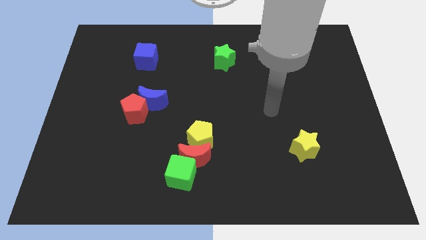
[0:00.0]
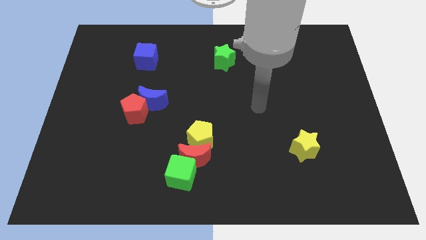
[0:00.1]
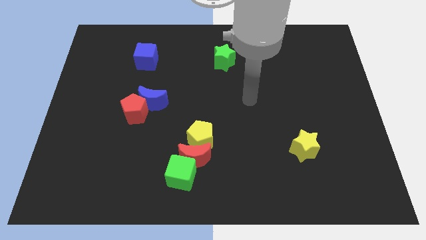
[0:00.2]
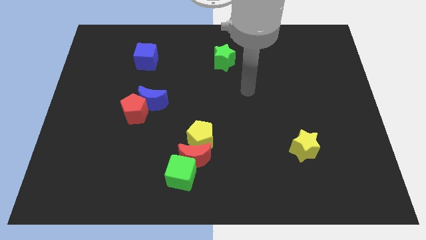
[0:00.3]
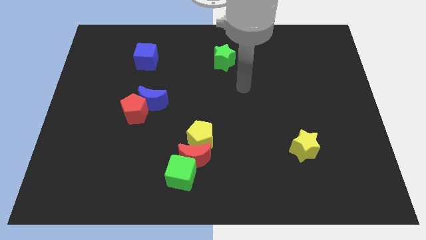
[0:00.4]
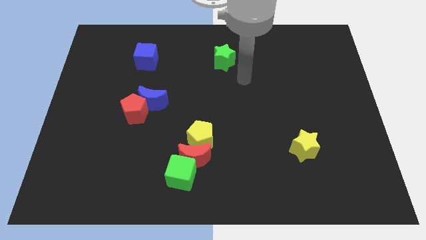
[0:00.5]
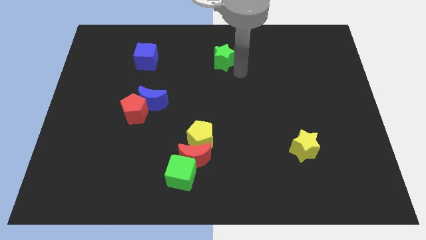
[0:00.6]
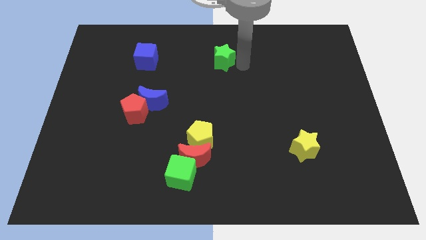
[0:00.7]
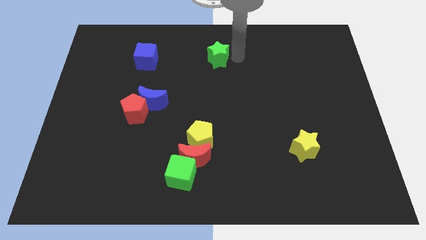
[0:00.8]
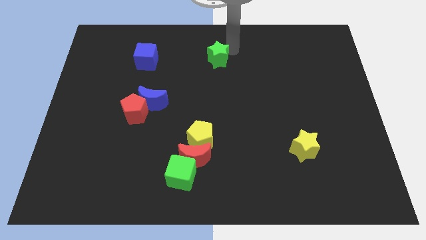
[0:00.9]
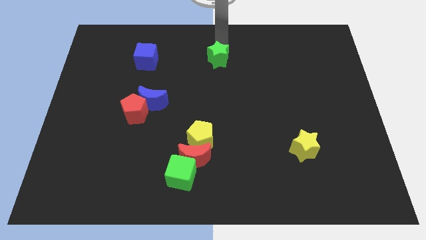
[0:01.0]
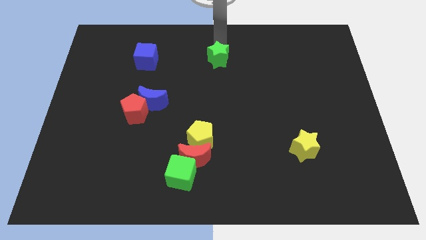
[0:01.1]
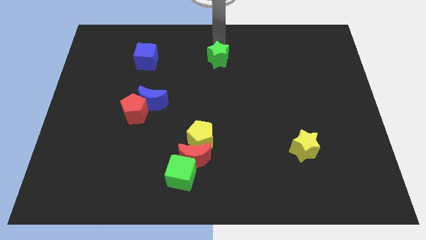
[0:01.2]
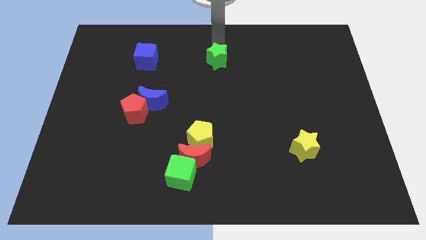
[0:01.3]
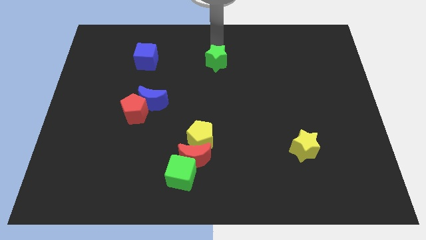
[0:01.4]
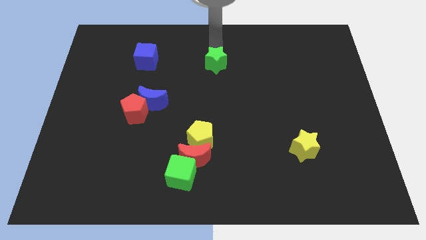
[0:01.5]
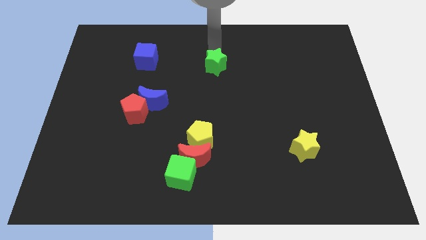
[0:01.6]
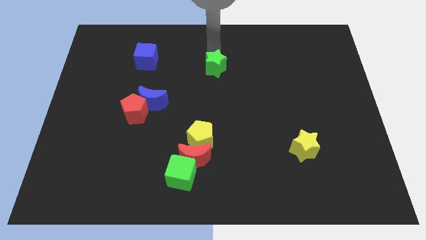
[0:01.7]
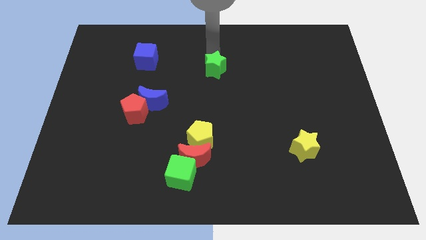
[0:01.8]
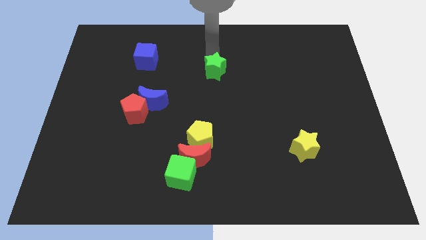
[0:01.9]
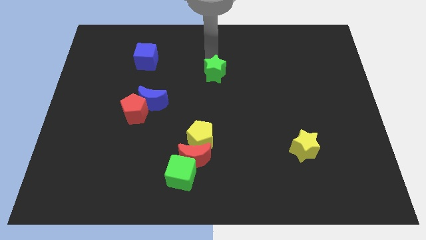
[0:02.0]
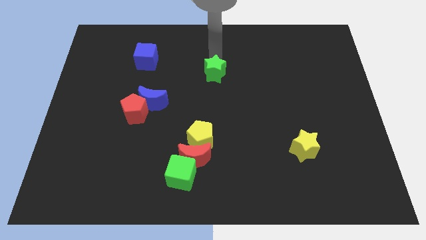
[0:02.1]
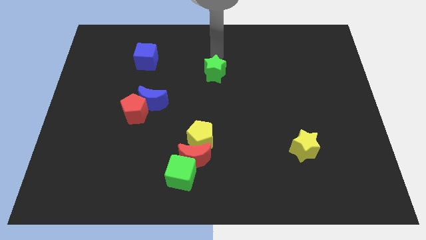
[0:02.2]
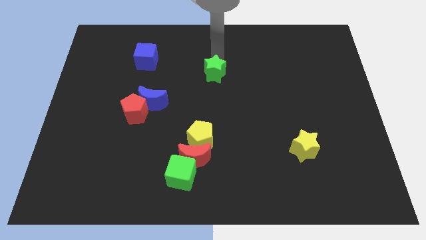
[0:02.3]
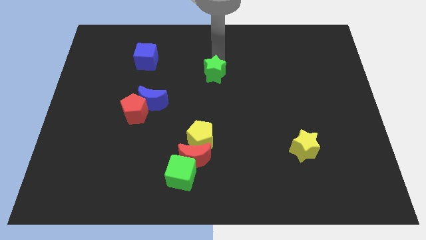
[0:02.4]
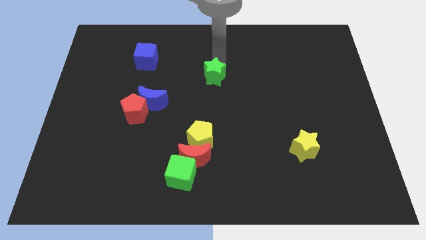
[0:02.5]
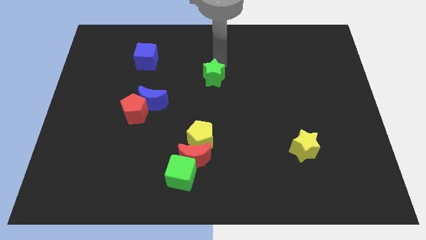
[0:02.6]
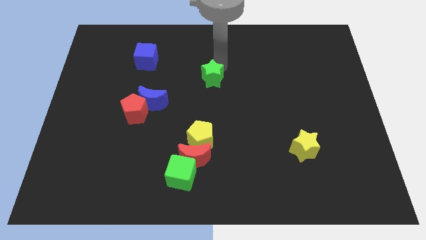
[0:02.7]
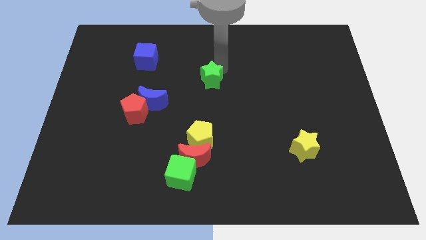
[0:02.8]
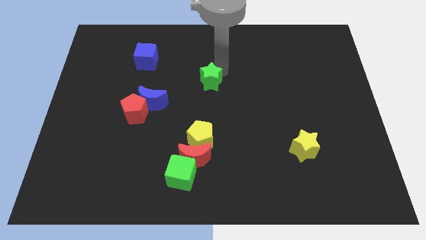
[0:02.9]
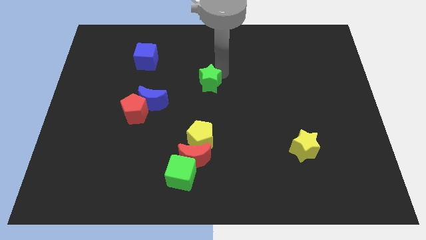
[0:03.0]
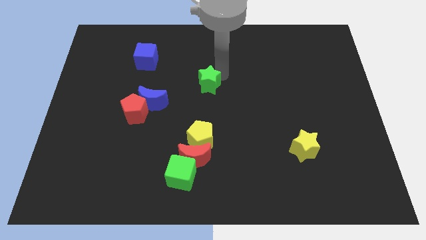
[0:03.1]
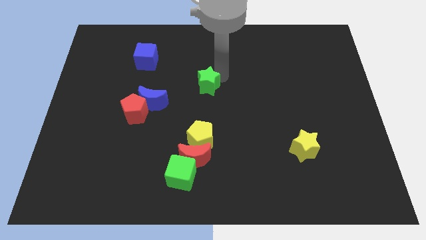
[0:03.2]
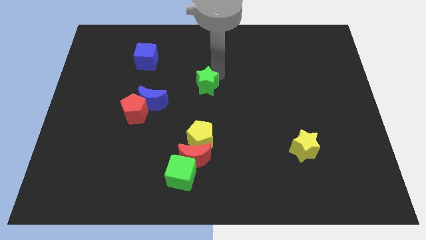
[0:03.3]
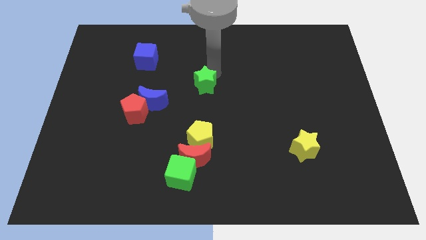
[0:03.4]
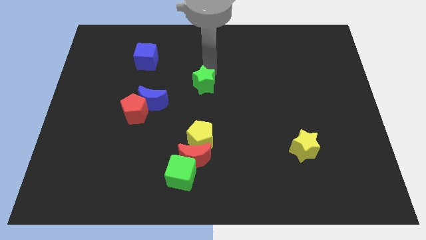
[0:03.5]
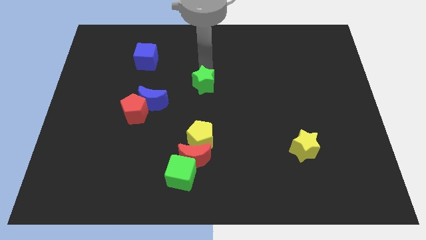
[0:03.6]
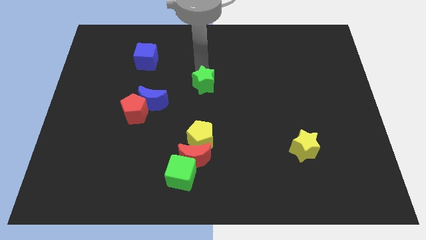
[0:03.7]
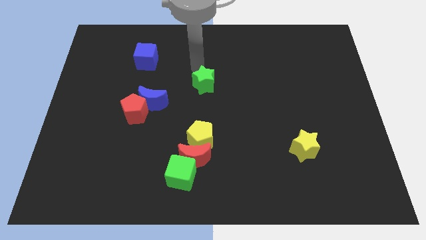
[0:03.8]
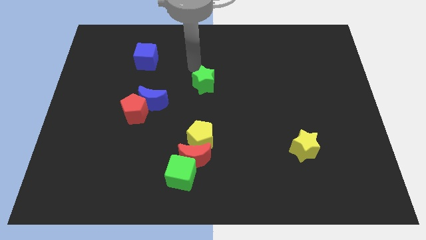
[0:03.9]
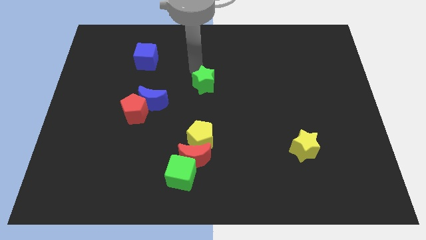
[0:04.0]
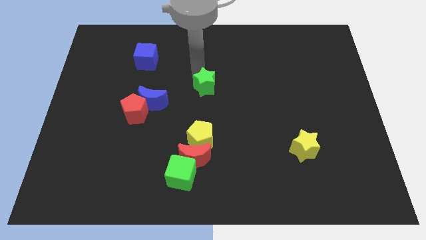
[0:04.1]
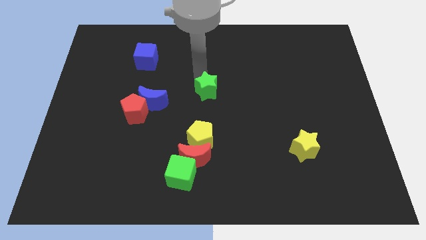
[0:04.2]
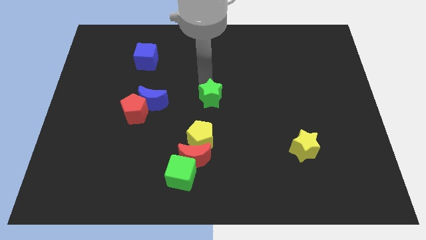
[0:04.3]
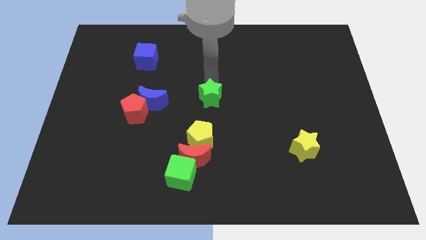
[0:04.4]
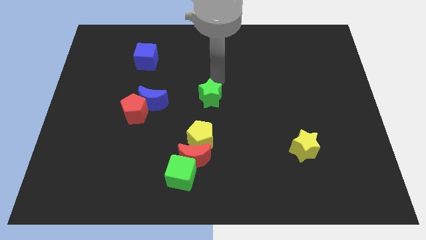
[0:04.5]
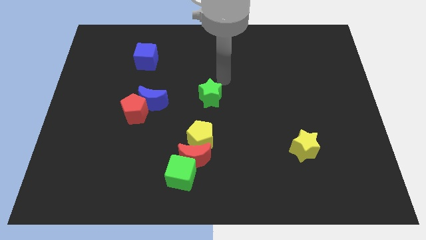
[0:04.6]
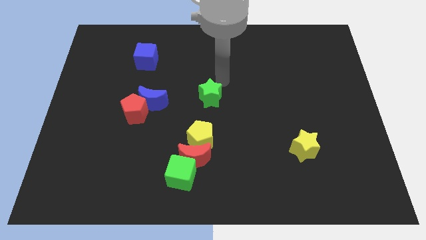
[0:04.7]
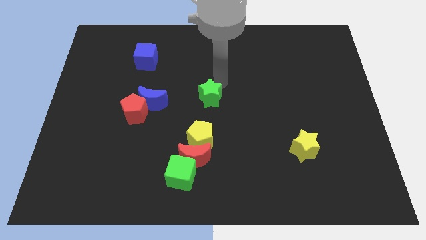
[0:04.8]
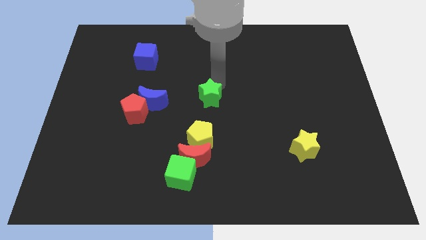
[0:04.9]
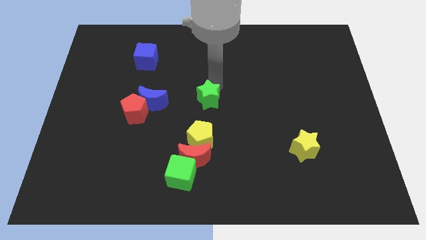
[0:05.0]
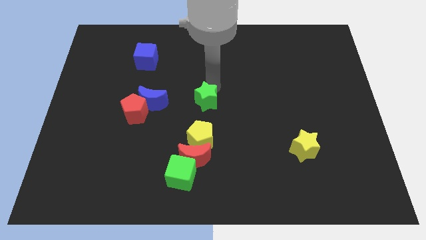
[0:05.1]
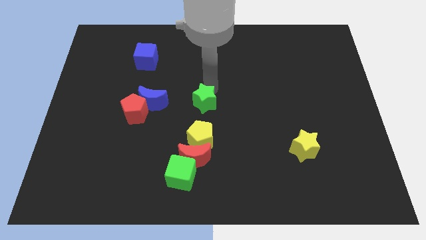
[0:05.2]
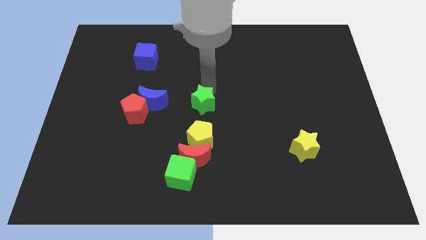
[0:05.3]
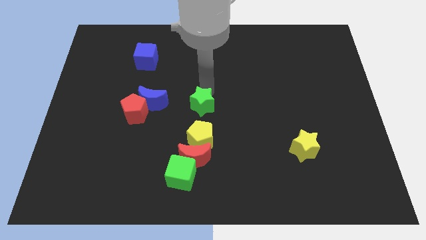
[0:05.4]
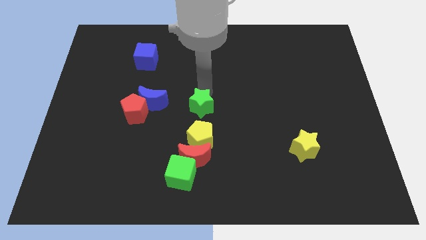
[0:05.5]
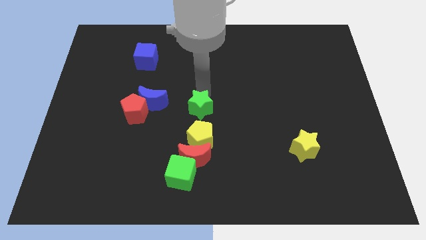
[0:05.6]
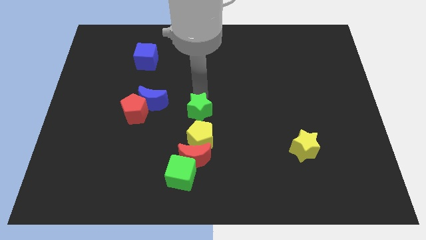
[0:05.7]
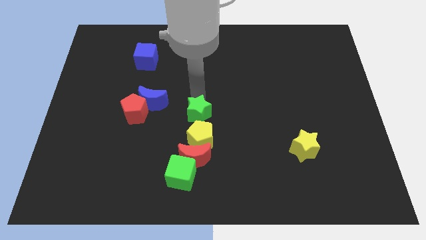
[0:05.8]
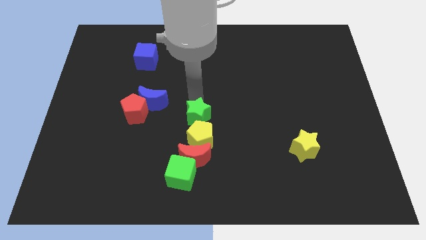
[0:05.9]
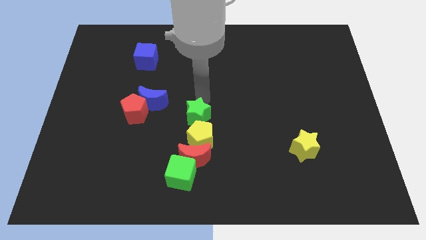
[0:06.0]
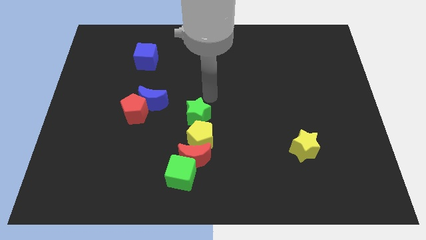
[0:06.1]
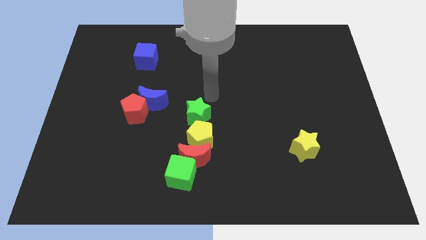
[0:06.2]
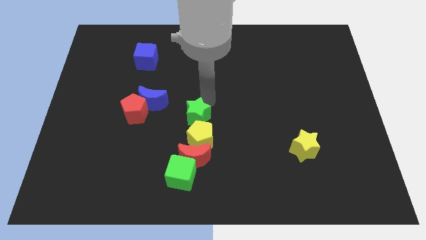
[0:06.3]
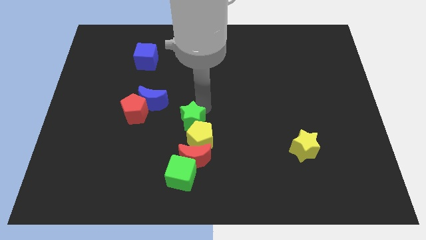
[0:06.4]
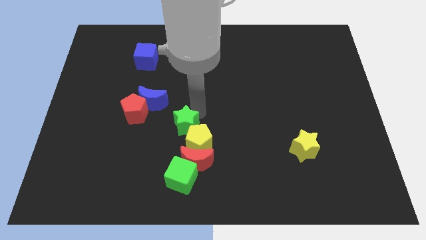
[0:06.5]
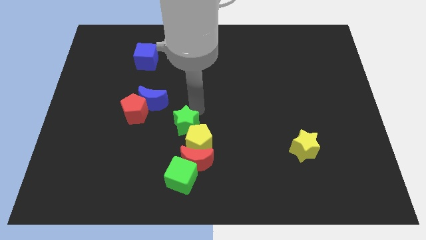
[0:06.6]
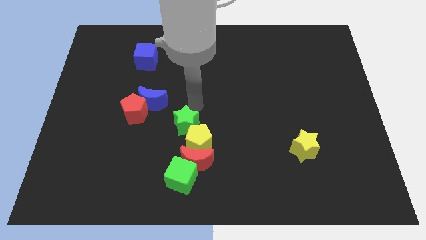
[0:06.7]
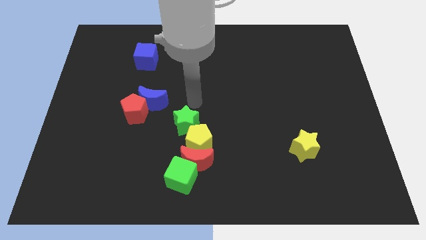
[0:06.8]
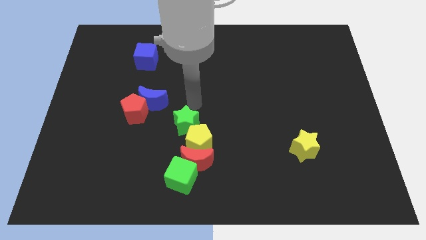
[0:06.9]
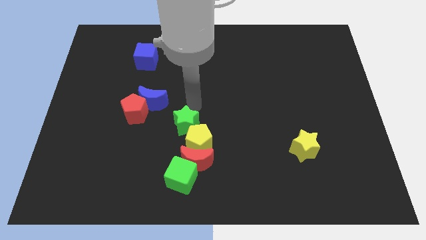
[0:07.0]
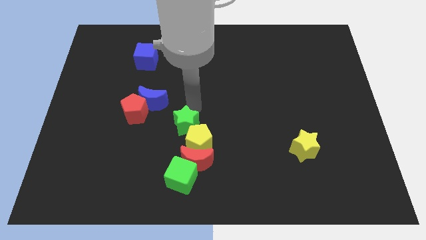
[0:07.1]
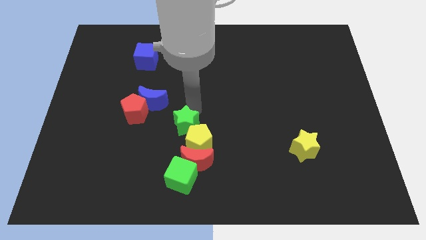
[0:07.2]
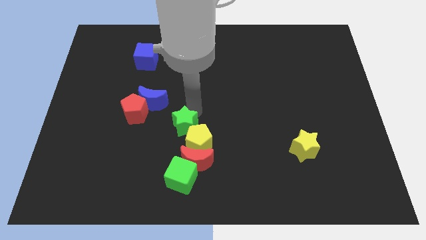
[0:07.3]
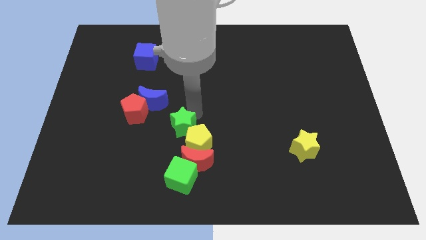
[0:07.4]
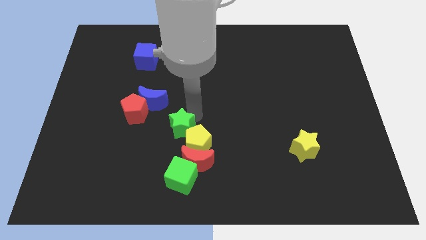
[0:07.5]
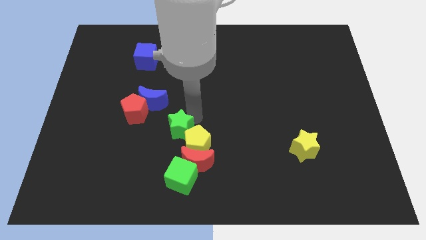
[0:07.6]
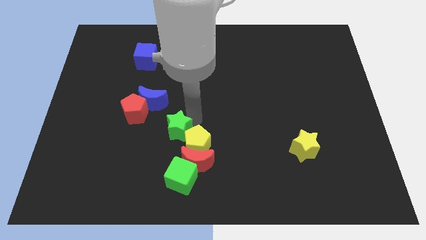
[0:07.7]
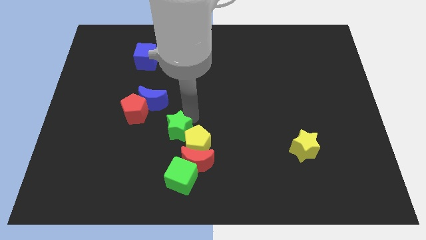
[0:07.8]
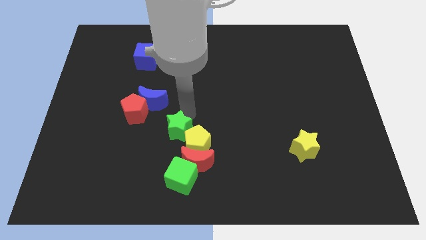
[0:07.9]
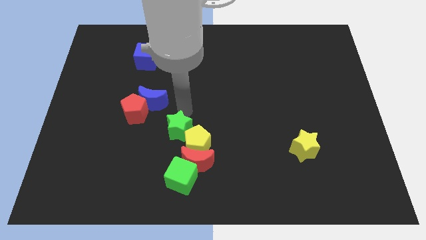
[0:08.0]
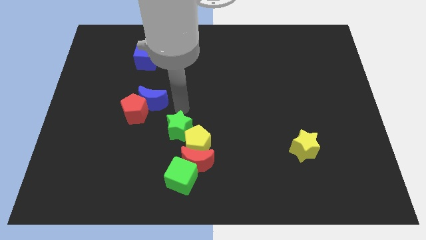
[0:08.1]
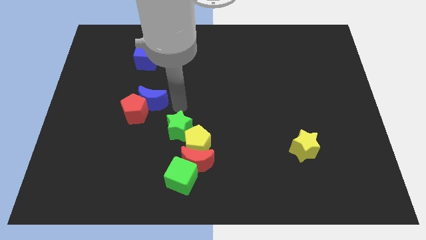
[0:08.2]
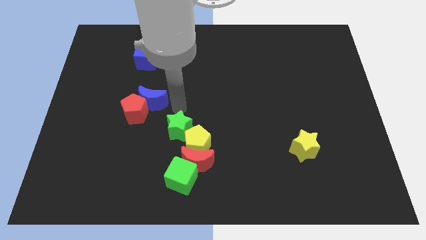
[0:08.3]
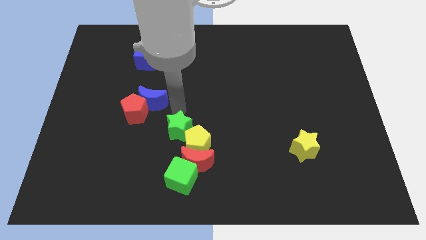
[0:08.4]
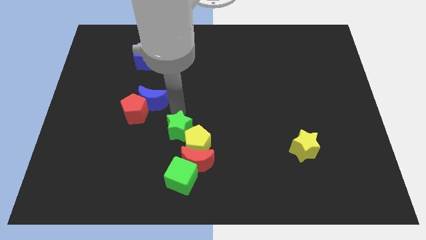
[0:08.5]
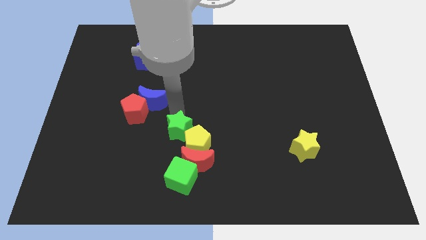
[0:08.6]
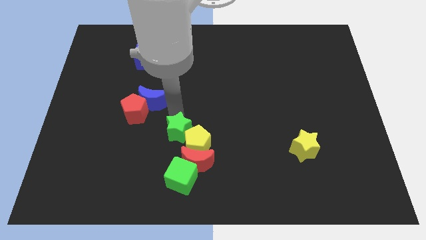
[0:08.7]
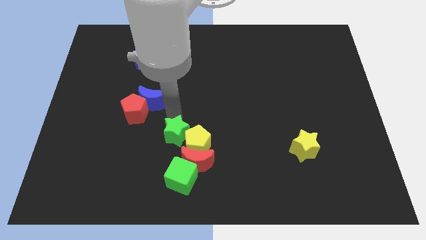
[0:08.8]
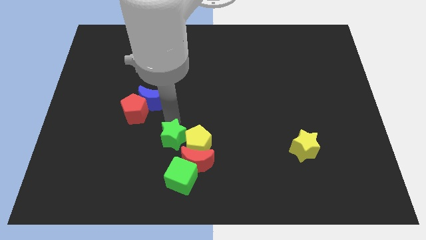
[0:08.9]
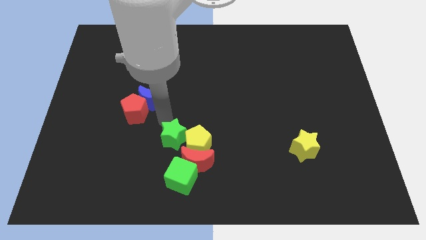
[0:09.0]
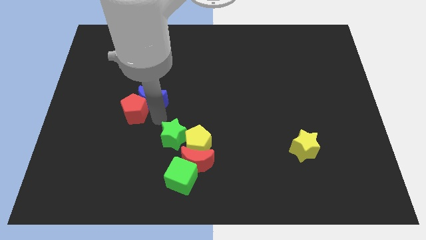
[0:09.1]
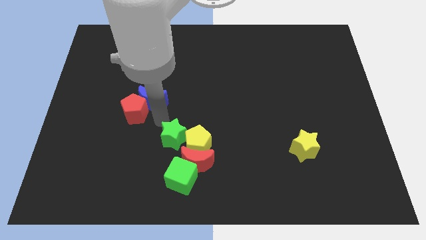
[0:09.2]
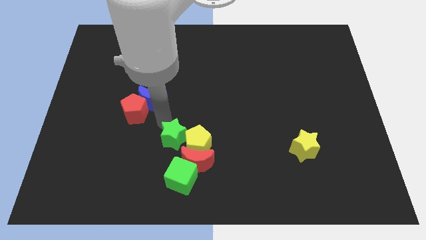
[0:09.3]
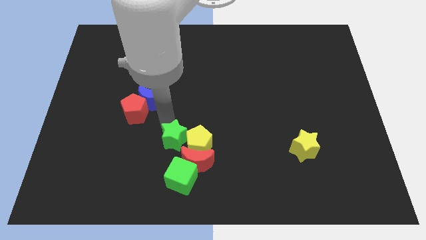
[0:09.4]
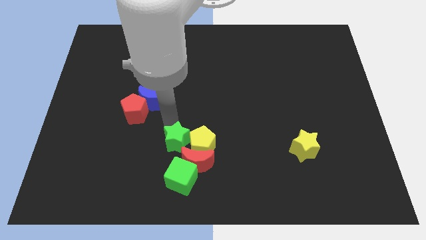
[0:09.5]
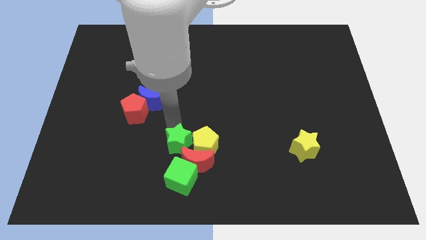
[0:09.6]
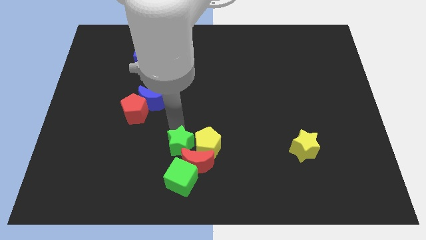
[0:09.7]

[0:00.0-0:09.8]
push the green star towards the red moon
